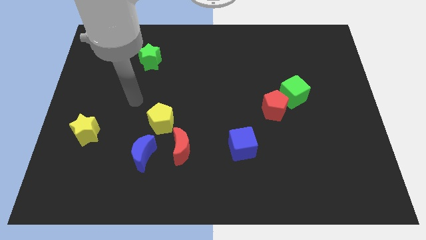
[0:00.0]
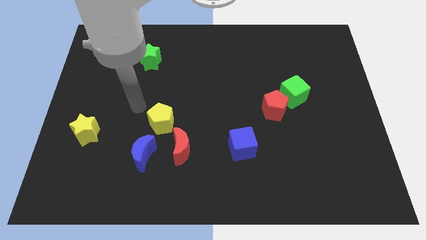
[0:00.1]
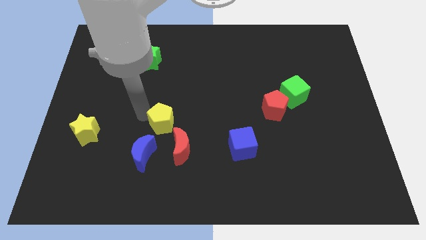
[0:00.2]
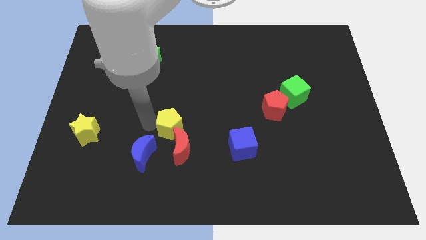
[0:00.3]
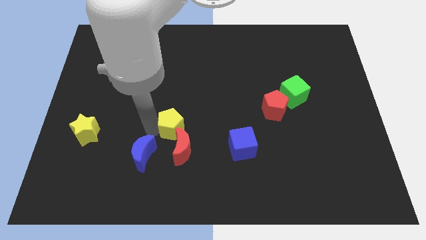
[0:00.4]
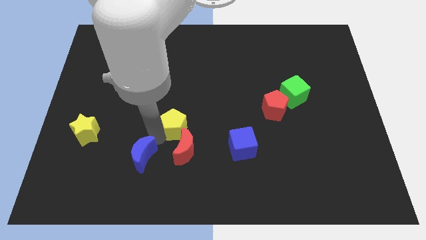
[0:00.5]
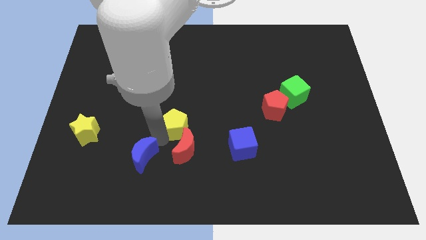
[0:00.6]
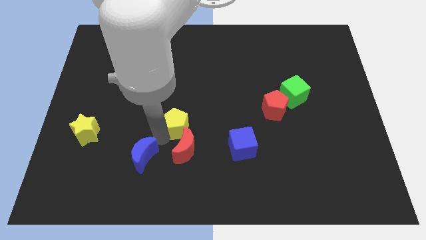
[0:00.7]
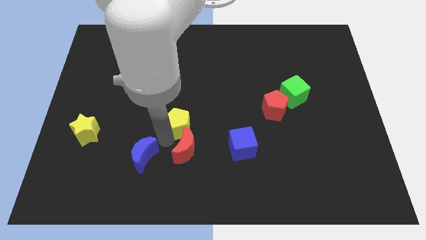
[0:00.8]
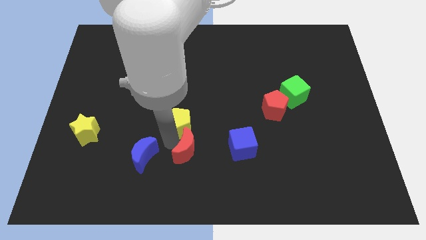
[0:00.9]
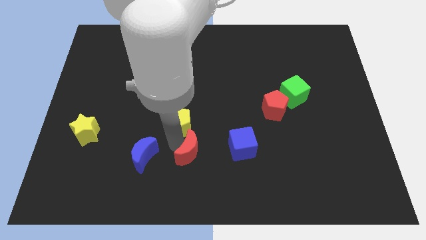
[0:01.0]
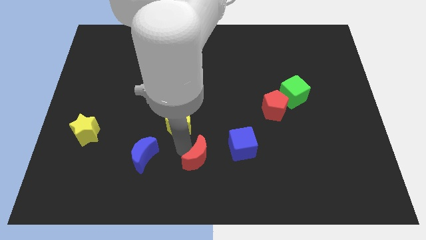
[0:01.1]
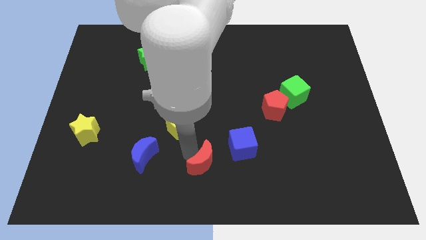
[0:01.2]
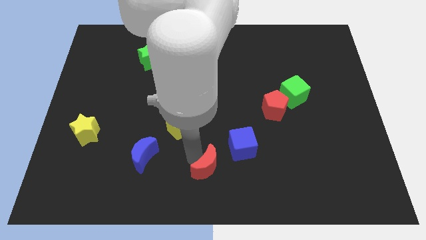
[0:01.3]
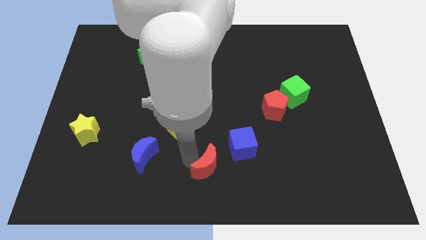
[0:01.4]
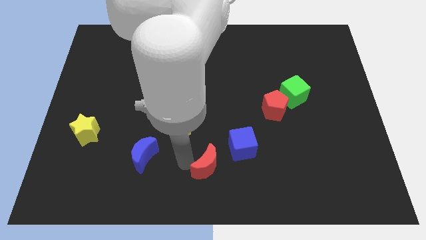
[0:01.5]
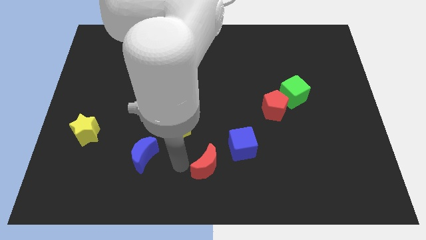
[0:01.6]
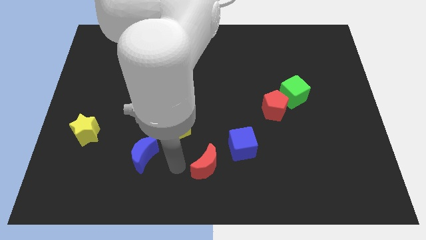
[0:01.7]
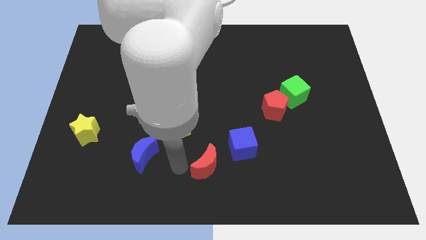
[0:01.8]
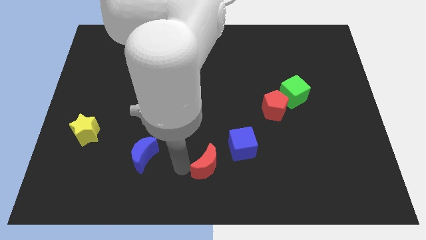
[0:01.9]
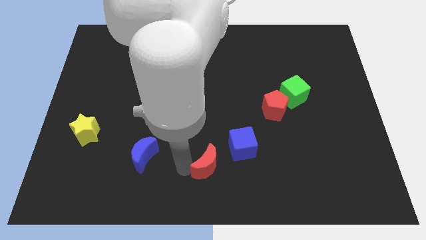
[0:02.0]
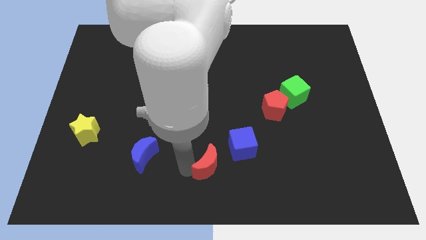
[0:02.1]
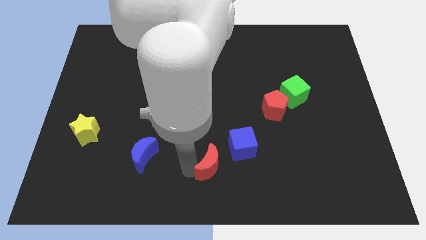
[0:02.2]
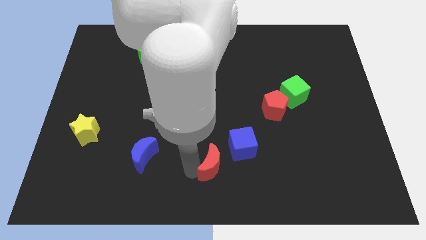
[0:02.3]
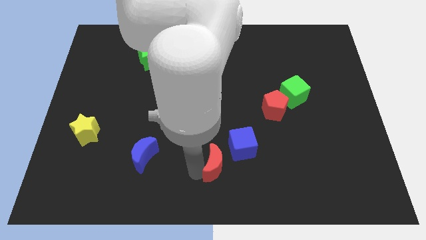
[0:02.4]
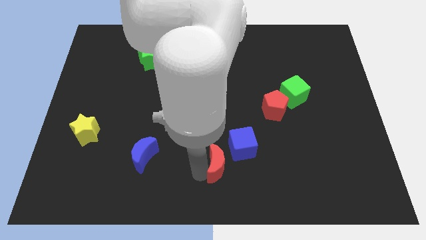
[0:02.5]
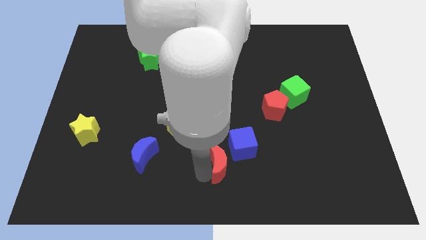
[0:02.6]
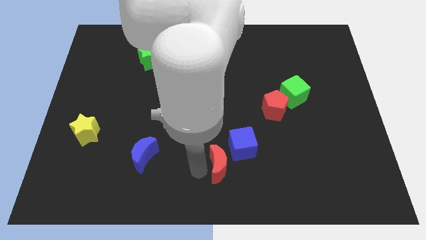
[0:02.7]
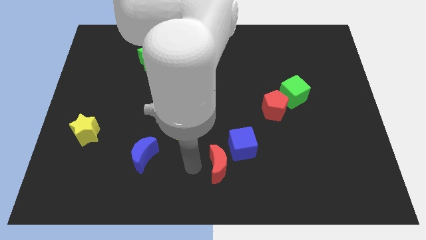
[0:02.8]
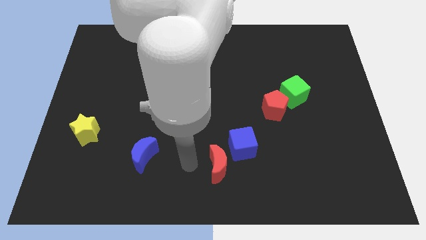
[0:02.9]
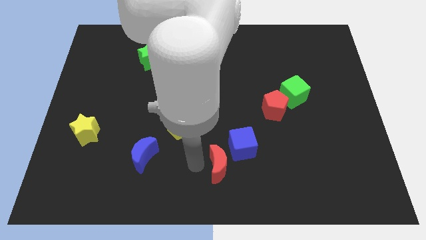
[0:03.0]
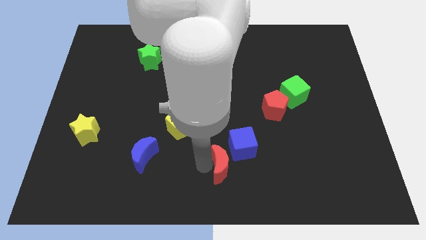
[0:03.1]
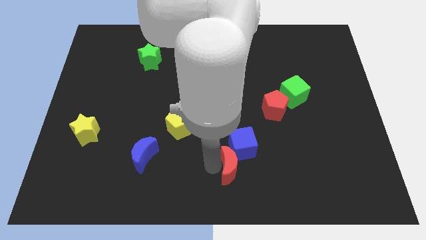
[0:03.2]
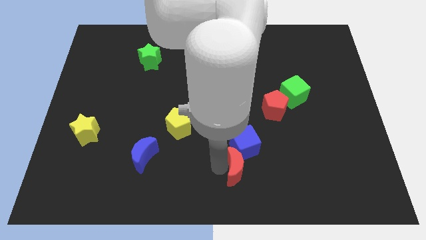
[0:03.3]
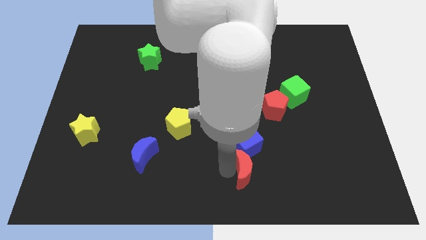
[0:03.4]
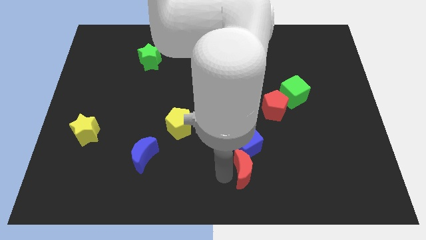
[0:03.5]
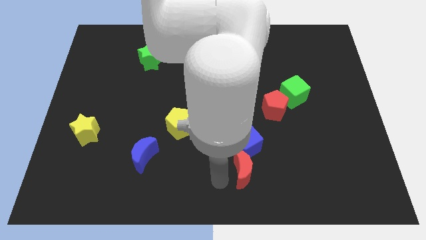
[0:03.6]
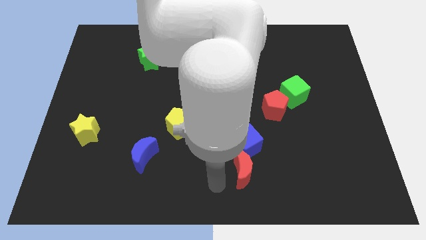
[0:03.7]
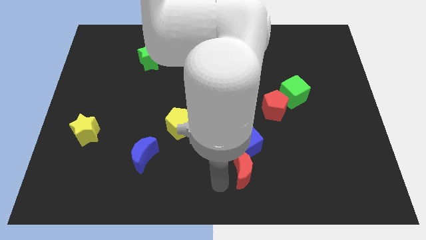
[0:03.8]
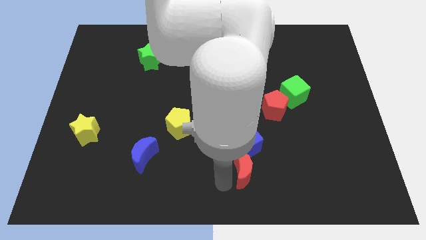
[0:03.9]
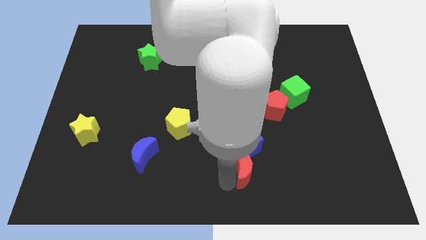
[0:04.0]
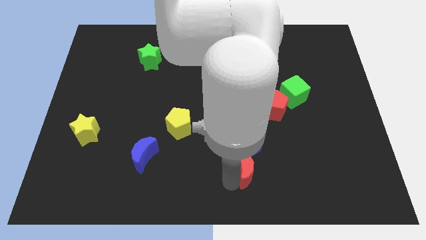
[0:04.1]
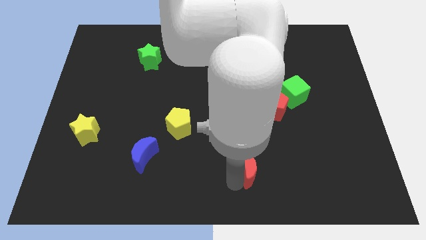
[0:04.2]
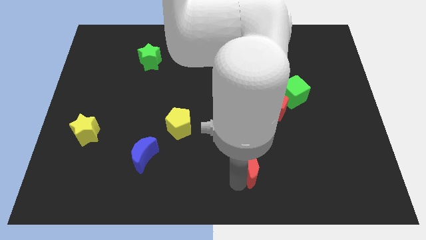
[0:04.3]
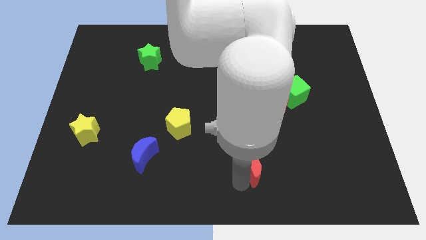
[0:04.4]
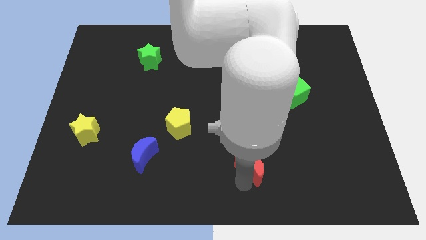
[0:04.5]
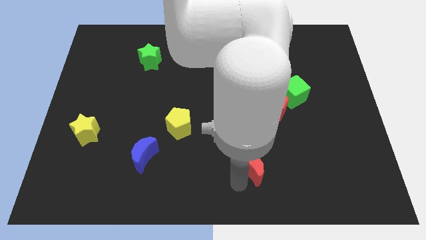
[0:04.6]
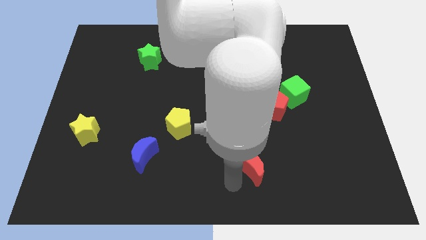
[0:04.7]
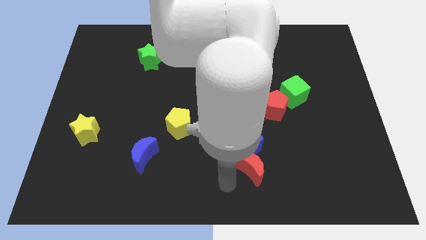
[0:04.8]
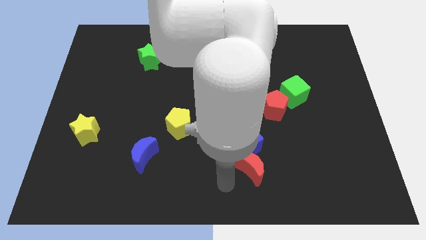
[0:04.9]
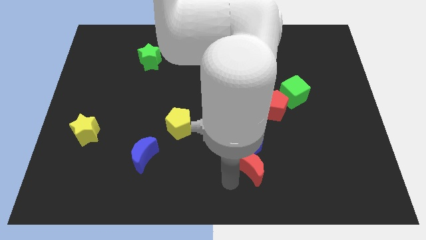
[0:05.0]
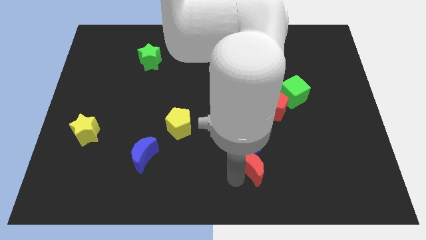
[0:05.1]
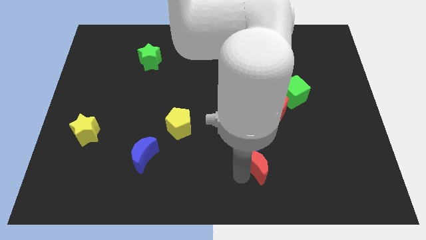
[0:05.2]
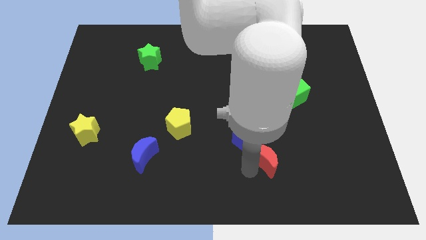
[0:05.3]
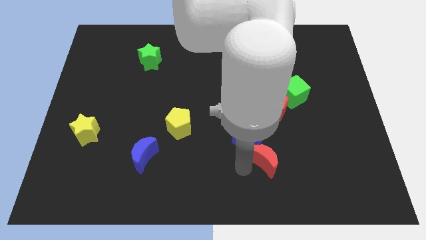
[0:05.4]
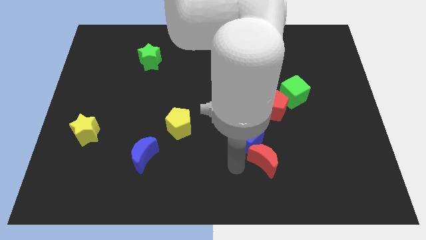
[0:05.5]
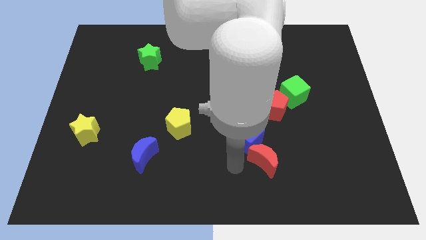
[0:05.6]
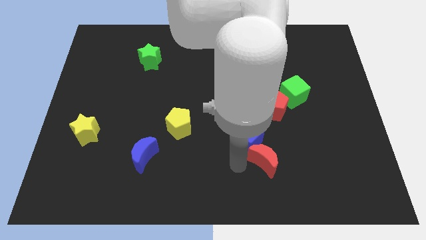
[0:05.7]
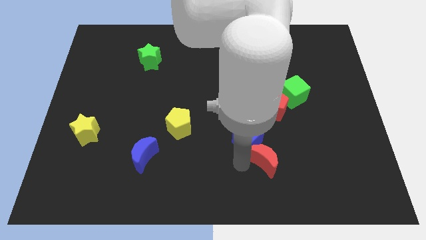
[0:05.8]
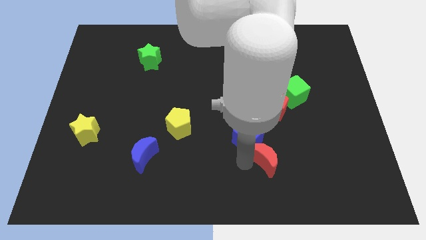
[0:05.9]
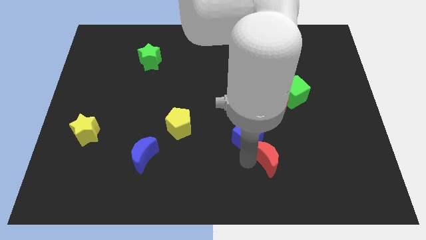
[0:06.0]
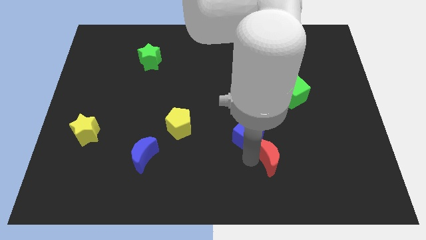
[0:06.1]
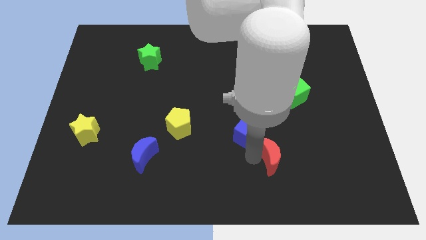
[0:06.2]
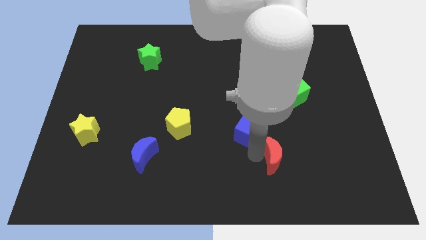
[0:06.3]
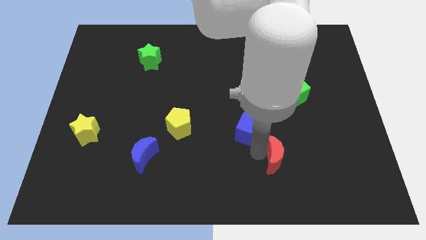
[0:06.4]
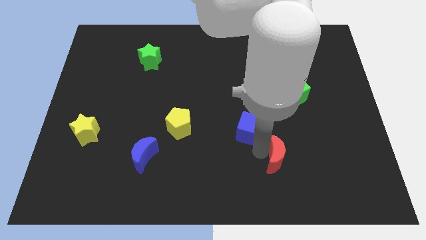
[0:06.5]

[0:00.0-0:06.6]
push the red moon to the right

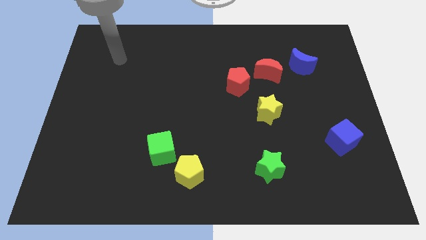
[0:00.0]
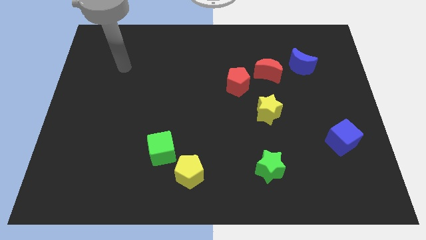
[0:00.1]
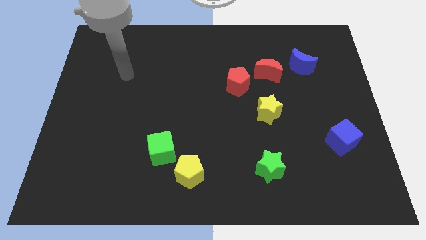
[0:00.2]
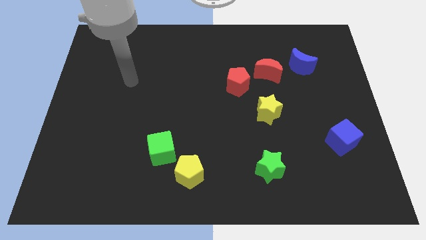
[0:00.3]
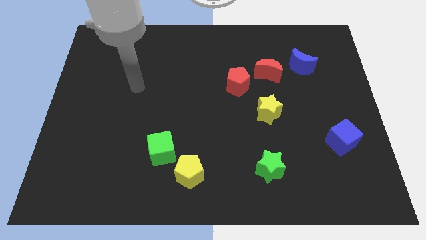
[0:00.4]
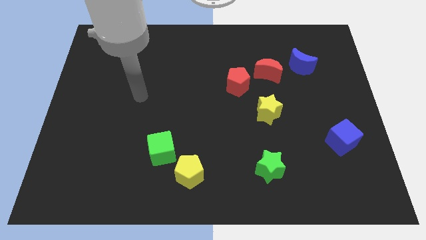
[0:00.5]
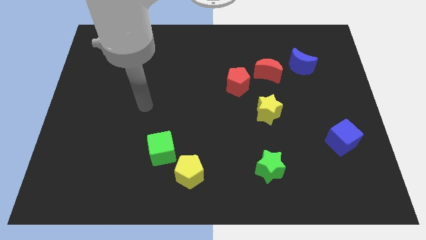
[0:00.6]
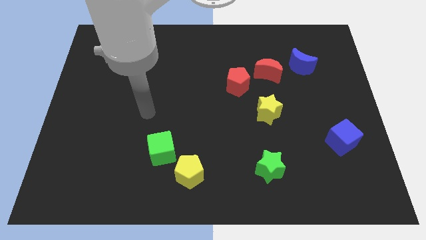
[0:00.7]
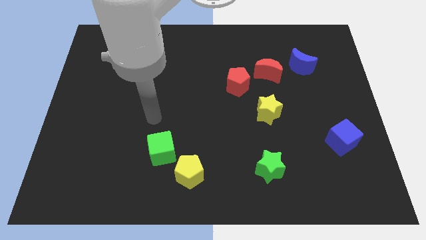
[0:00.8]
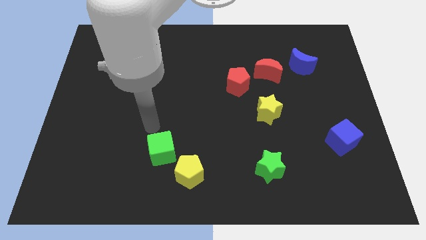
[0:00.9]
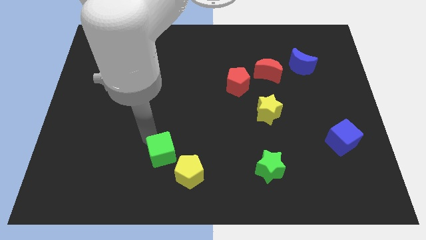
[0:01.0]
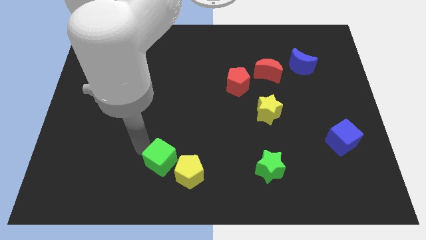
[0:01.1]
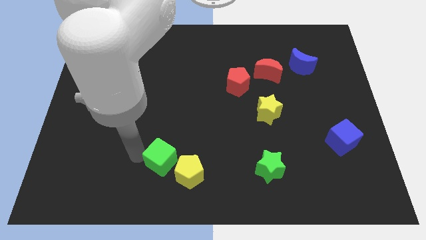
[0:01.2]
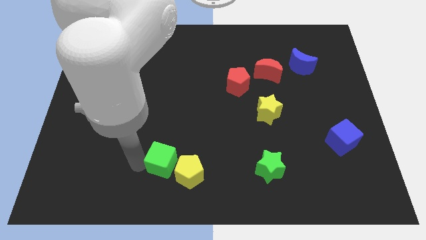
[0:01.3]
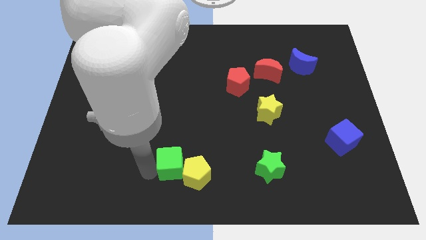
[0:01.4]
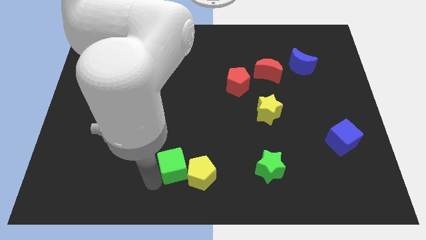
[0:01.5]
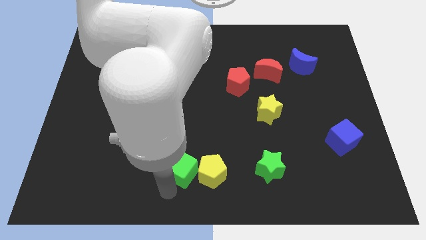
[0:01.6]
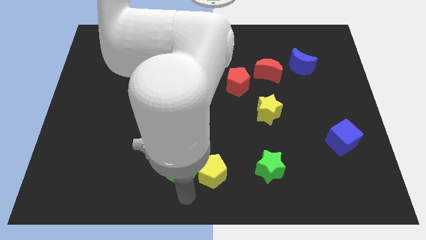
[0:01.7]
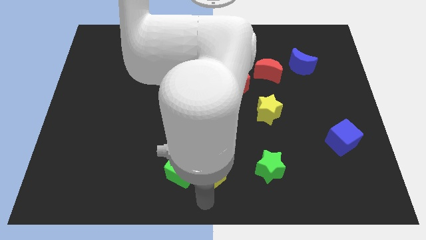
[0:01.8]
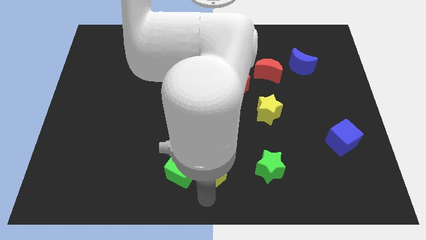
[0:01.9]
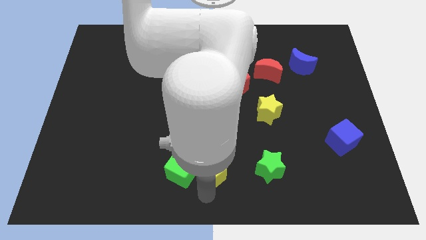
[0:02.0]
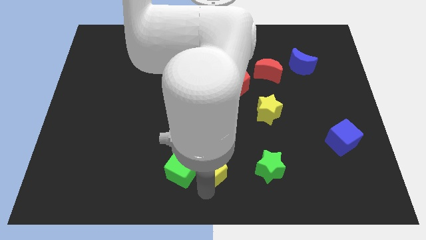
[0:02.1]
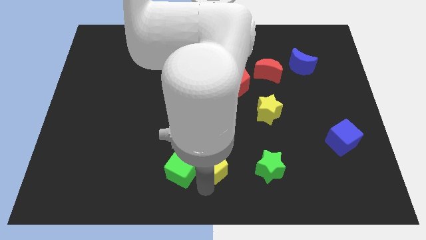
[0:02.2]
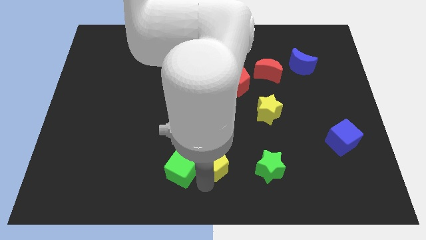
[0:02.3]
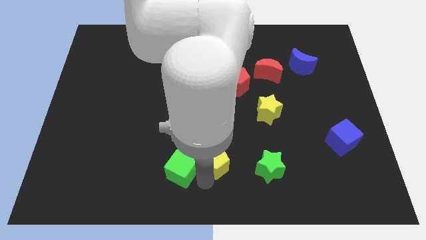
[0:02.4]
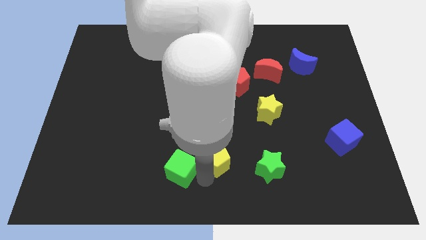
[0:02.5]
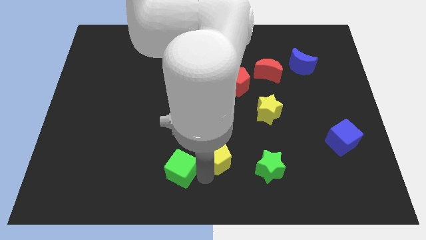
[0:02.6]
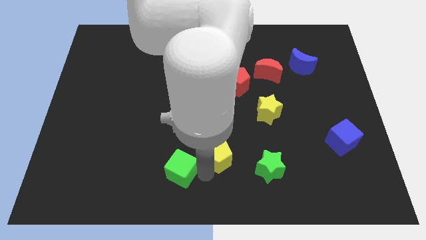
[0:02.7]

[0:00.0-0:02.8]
move the yellow pentagon slightly up and then to the right
